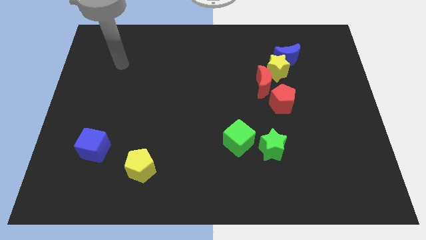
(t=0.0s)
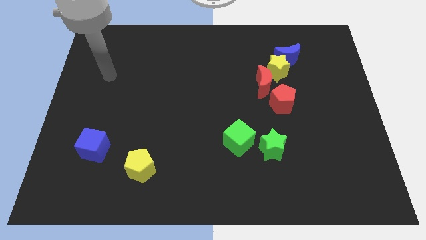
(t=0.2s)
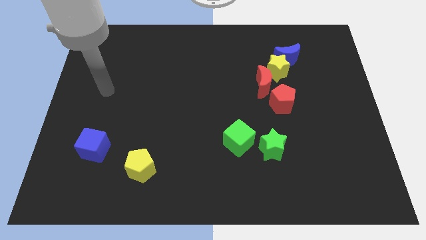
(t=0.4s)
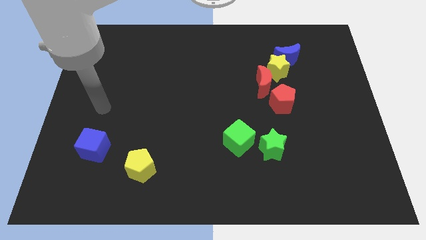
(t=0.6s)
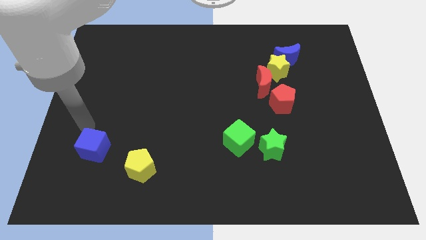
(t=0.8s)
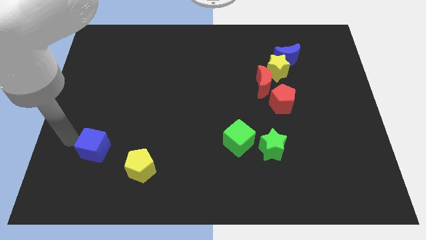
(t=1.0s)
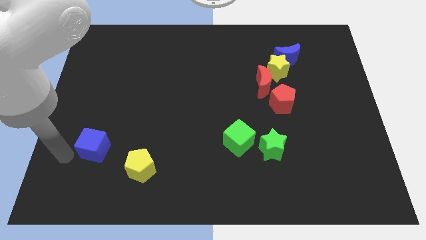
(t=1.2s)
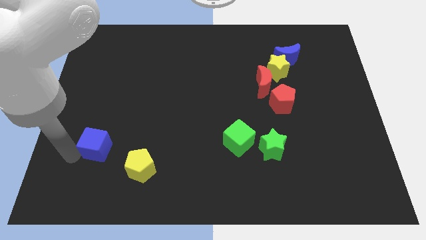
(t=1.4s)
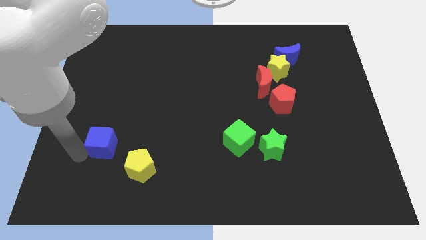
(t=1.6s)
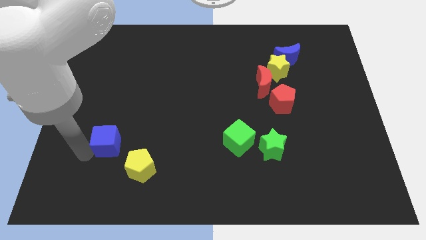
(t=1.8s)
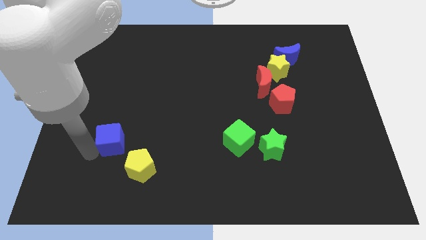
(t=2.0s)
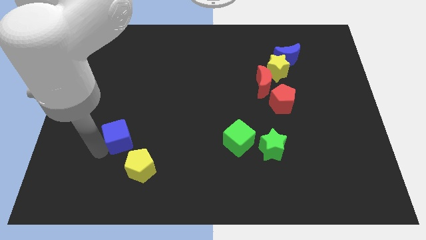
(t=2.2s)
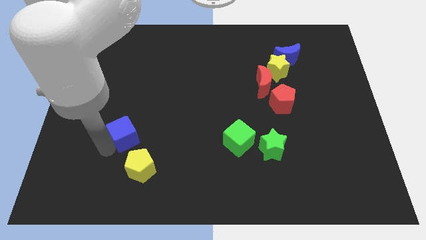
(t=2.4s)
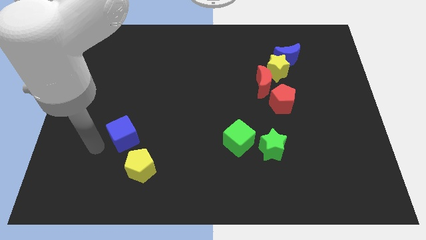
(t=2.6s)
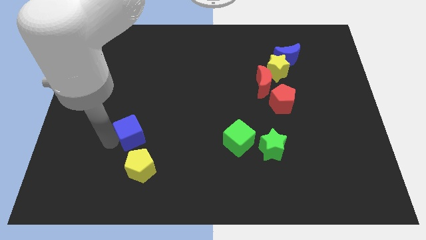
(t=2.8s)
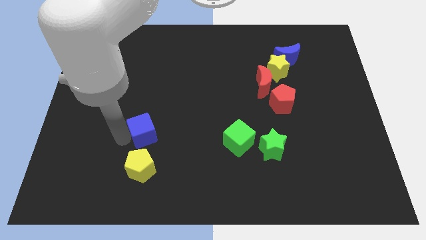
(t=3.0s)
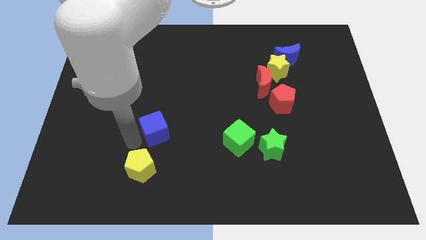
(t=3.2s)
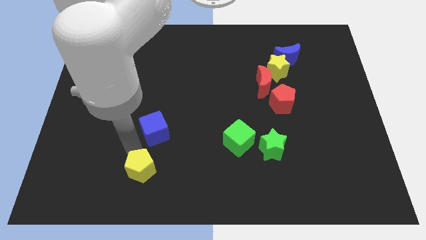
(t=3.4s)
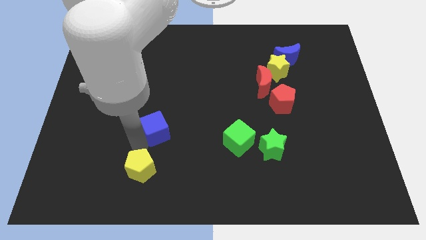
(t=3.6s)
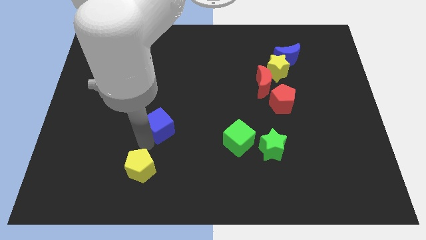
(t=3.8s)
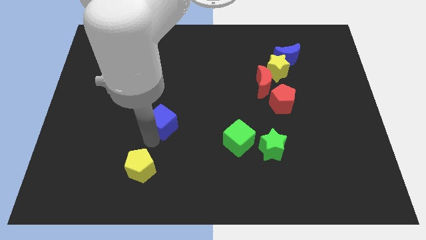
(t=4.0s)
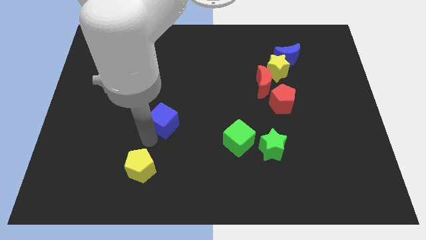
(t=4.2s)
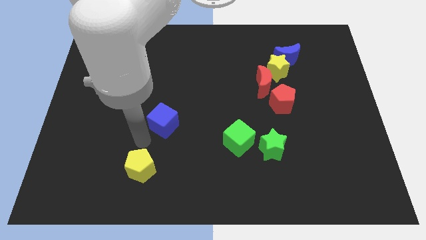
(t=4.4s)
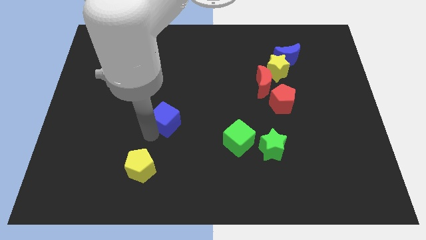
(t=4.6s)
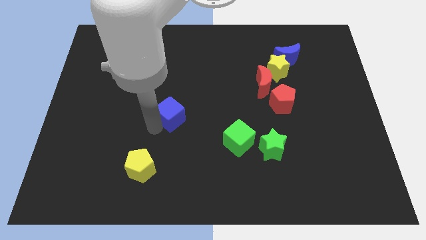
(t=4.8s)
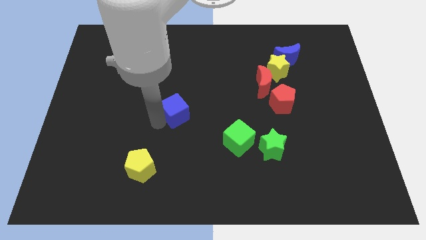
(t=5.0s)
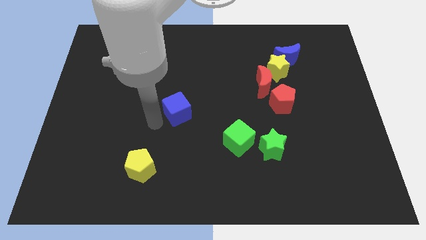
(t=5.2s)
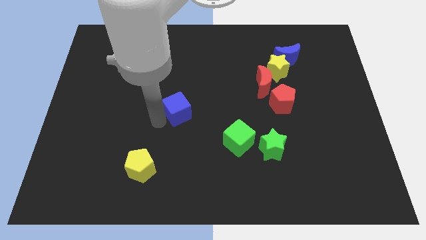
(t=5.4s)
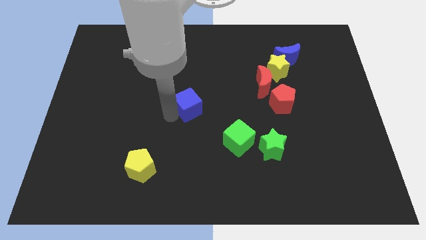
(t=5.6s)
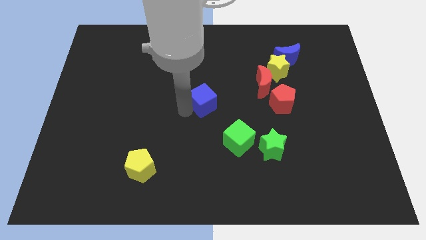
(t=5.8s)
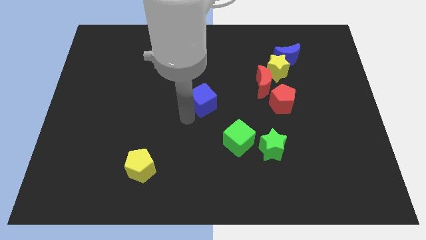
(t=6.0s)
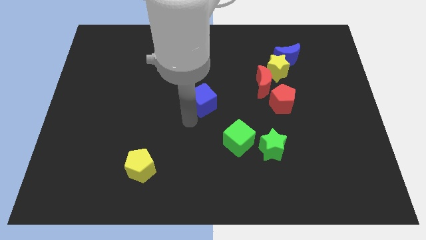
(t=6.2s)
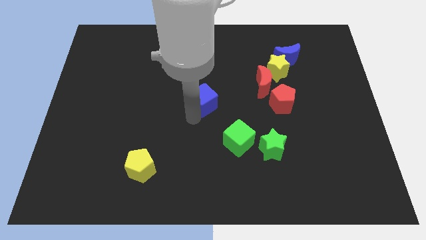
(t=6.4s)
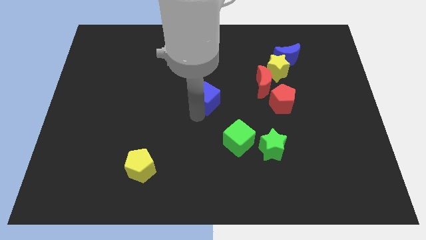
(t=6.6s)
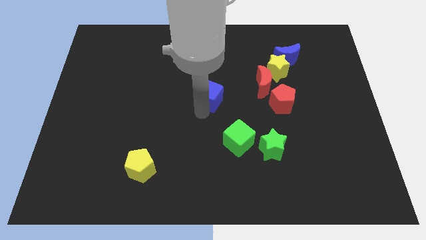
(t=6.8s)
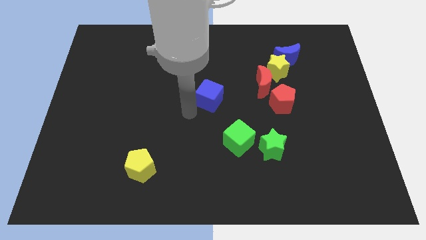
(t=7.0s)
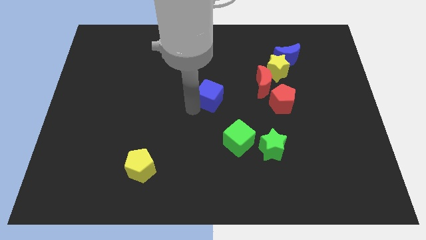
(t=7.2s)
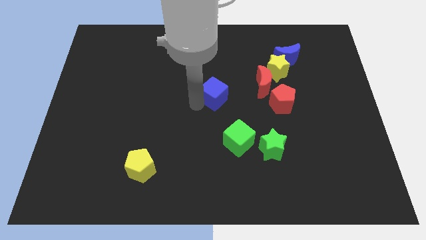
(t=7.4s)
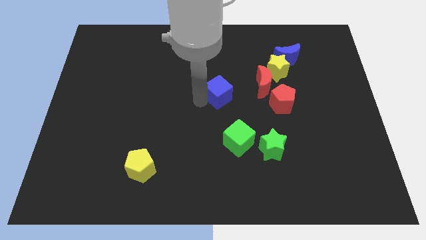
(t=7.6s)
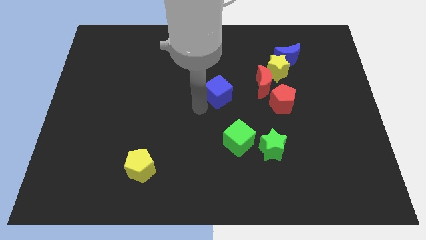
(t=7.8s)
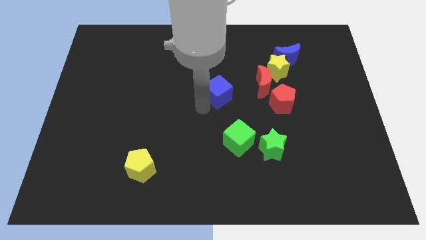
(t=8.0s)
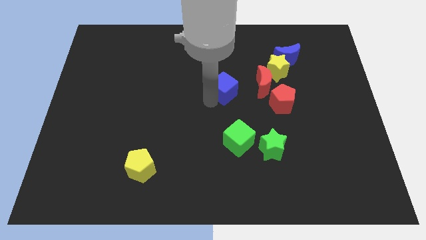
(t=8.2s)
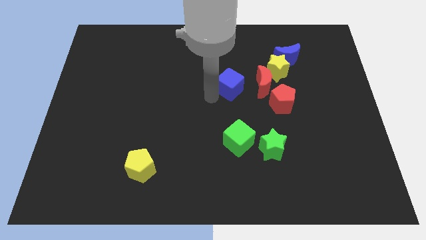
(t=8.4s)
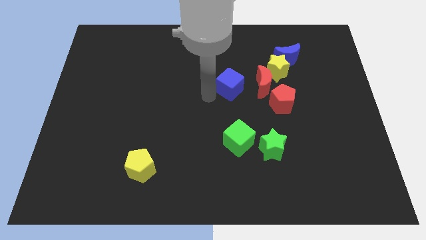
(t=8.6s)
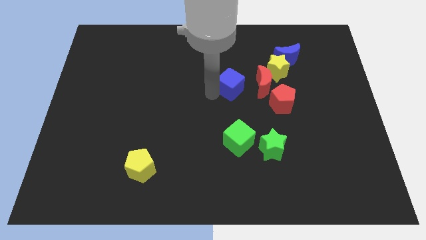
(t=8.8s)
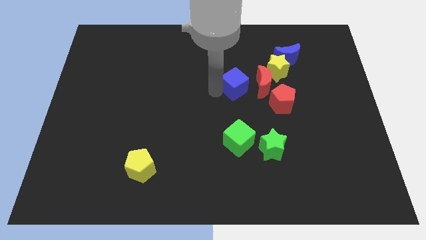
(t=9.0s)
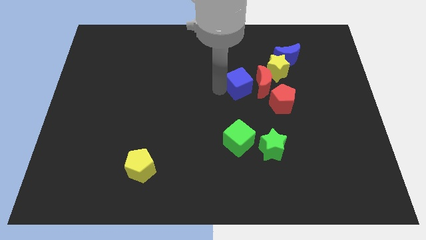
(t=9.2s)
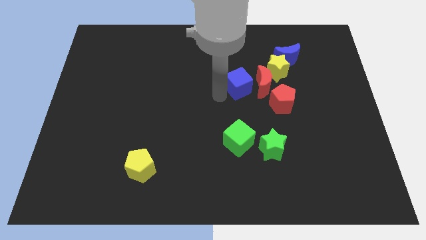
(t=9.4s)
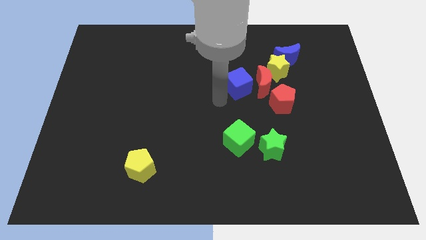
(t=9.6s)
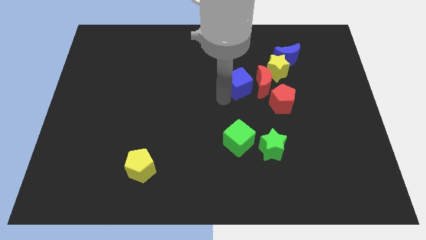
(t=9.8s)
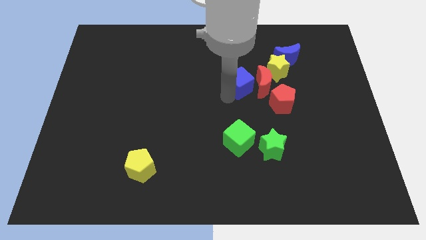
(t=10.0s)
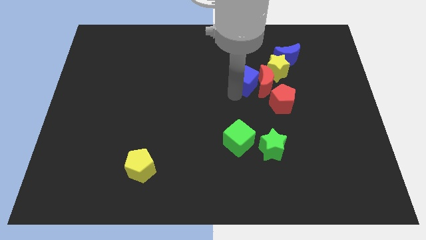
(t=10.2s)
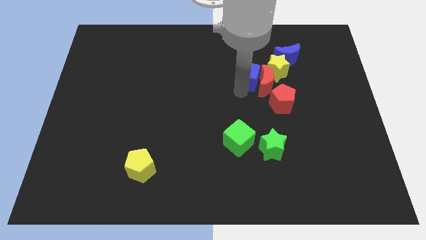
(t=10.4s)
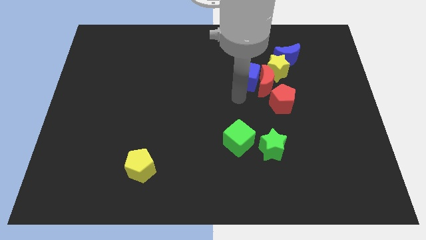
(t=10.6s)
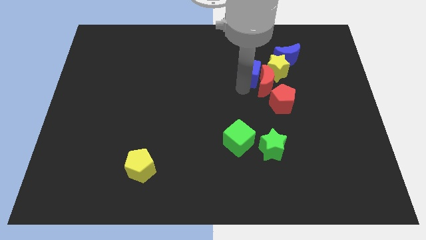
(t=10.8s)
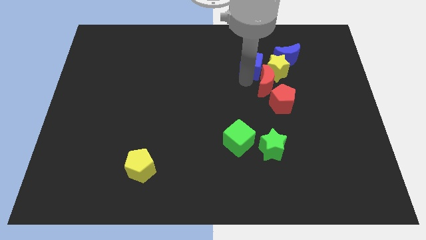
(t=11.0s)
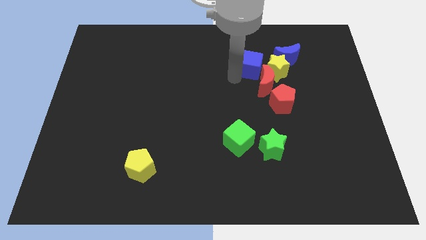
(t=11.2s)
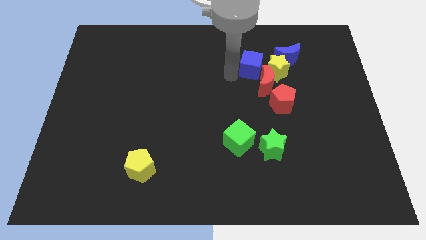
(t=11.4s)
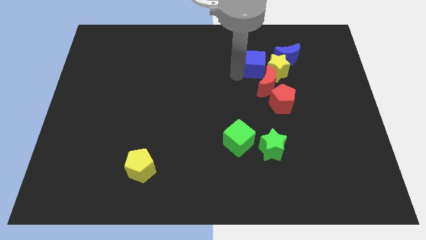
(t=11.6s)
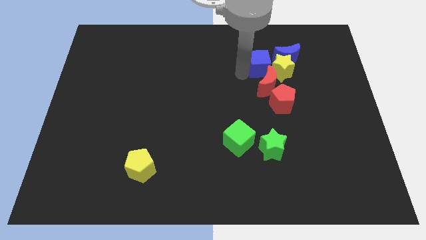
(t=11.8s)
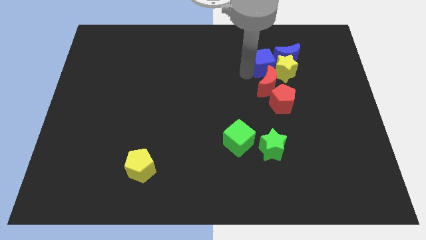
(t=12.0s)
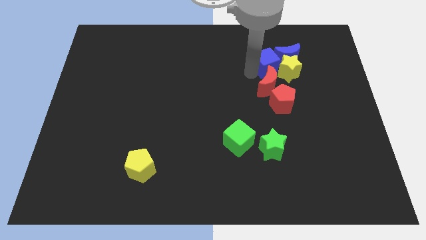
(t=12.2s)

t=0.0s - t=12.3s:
move the blue cube to the blue moon
